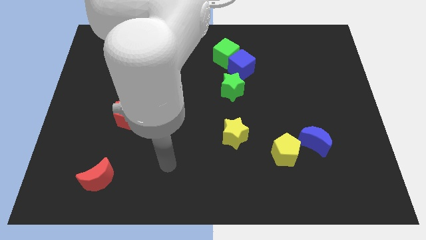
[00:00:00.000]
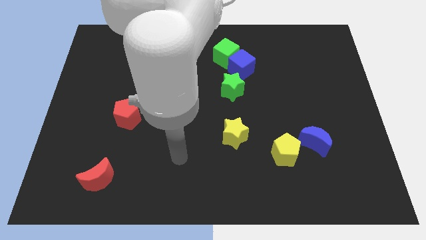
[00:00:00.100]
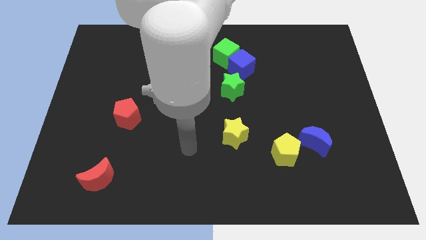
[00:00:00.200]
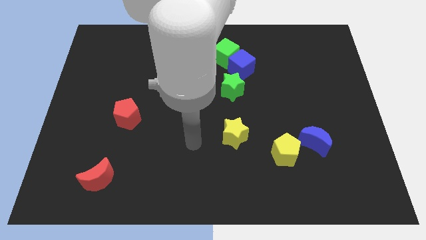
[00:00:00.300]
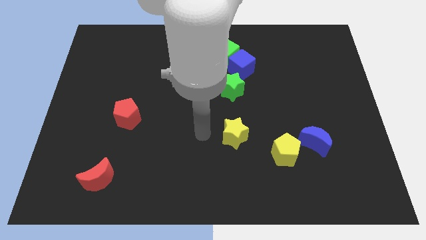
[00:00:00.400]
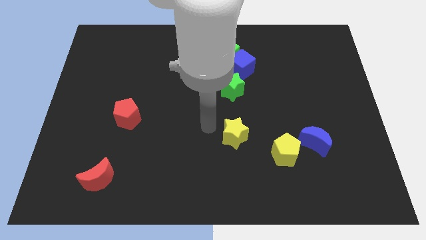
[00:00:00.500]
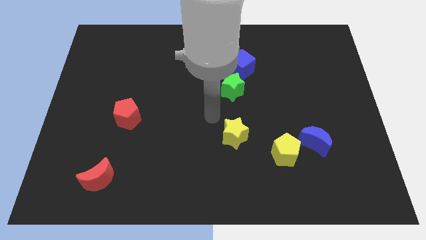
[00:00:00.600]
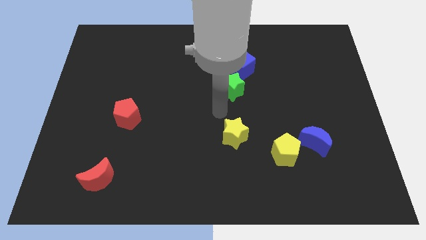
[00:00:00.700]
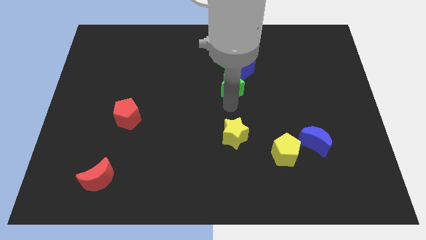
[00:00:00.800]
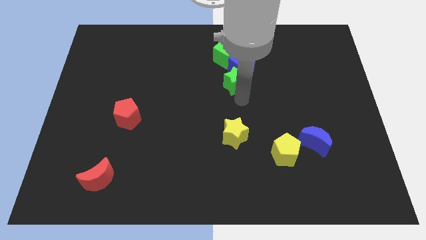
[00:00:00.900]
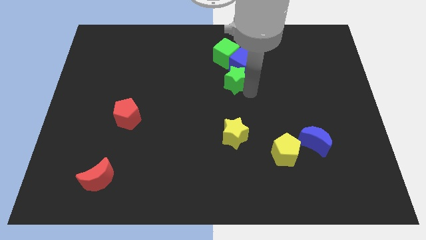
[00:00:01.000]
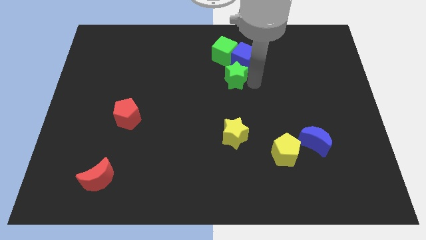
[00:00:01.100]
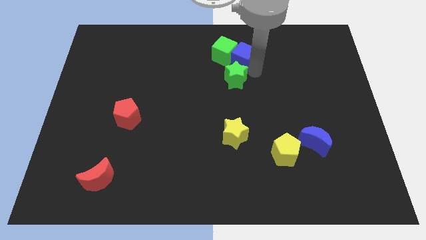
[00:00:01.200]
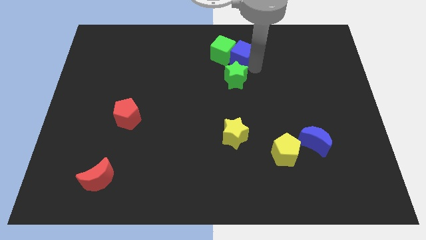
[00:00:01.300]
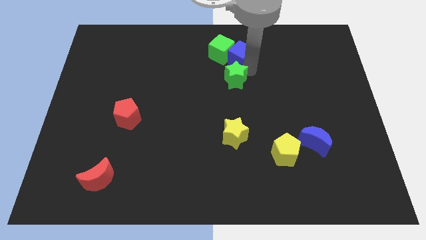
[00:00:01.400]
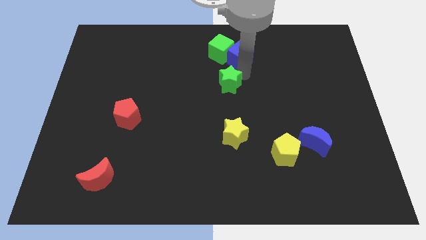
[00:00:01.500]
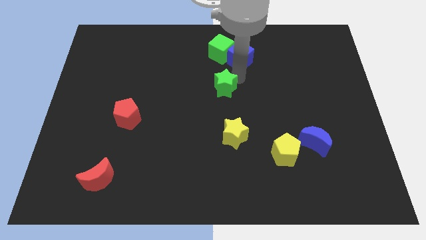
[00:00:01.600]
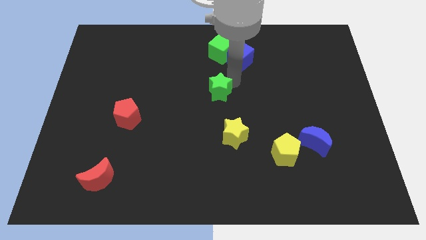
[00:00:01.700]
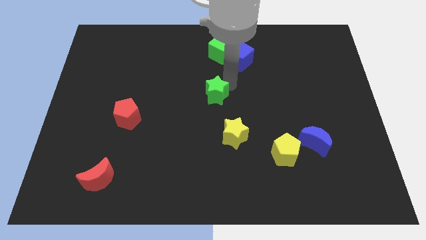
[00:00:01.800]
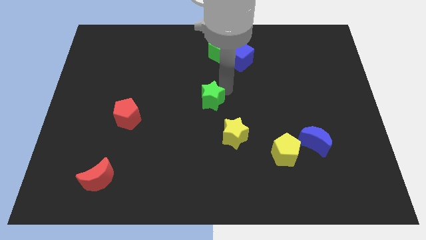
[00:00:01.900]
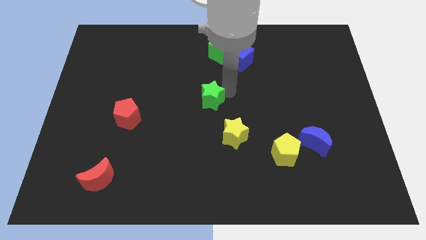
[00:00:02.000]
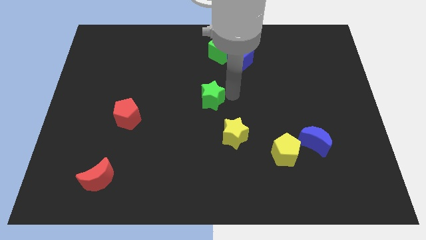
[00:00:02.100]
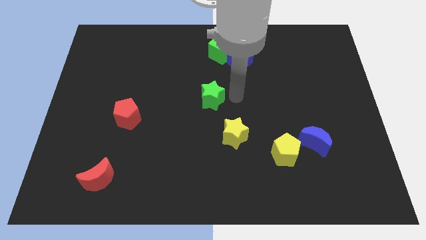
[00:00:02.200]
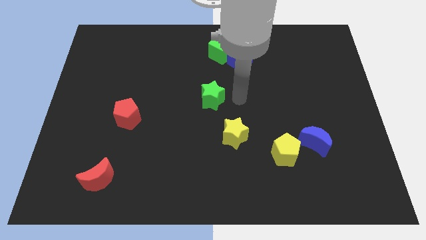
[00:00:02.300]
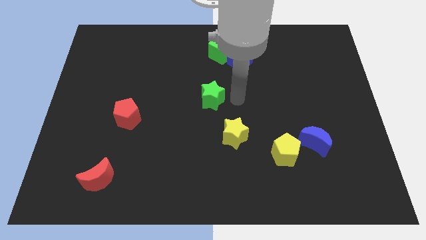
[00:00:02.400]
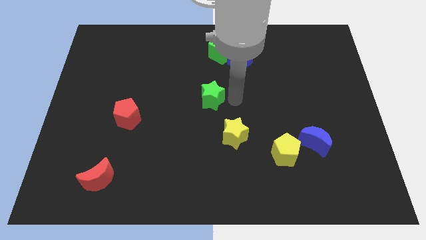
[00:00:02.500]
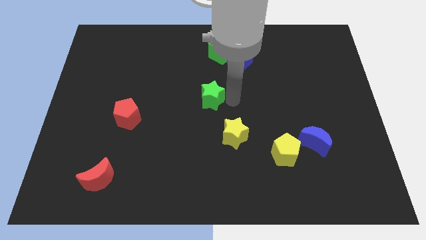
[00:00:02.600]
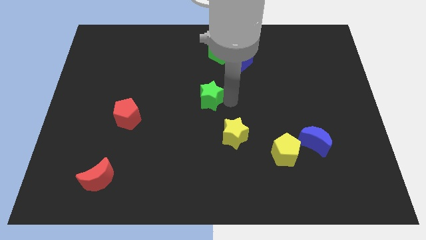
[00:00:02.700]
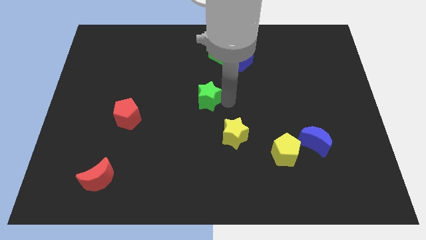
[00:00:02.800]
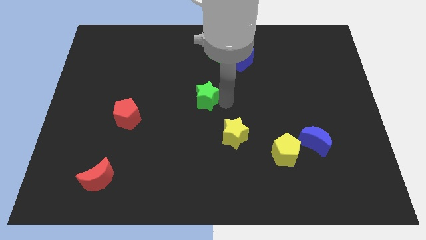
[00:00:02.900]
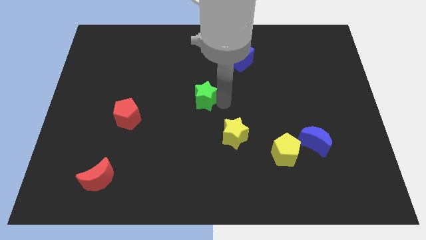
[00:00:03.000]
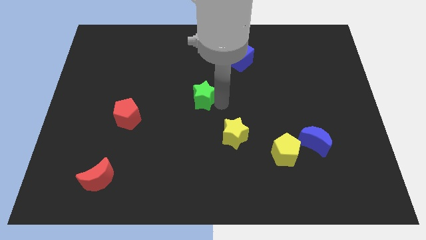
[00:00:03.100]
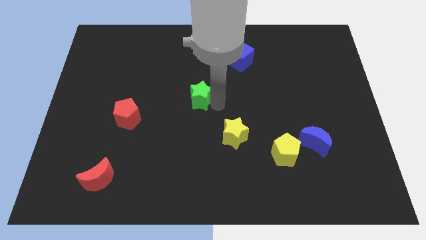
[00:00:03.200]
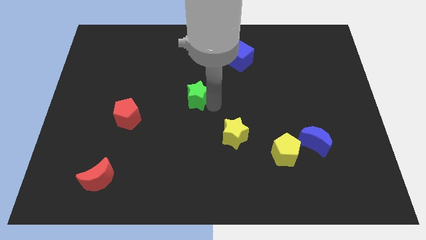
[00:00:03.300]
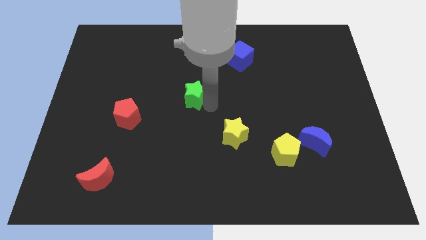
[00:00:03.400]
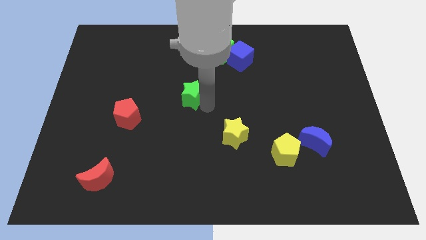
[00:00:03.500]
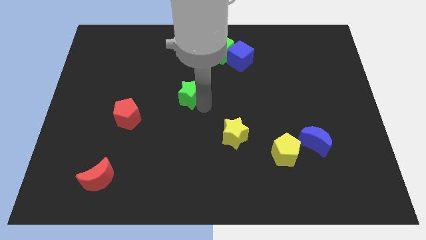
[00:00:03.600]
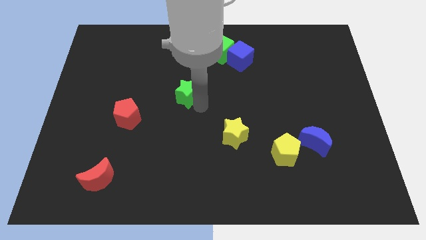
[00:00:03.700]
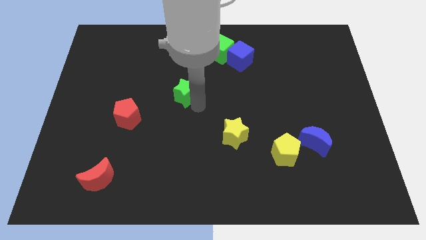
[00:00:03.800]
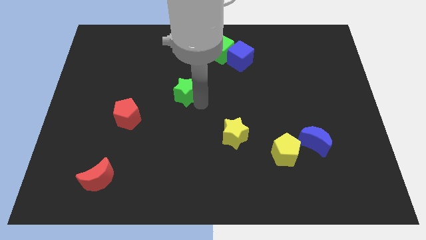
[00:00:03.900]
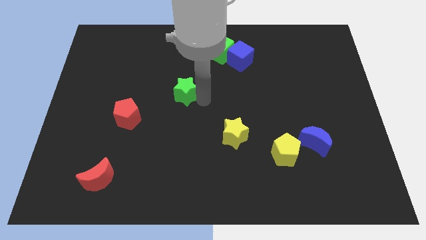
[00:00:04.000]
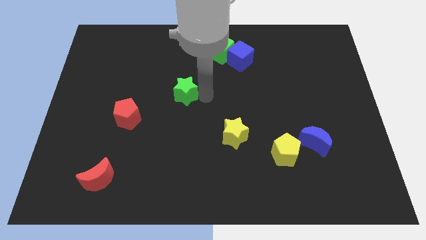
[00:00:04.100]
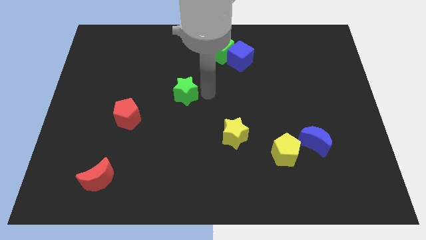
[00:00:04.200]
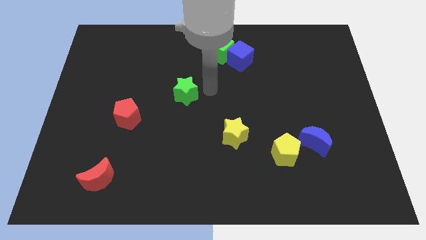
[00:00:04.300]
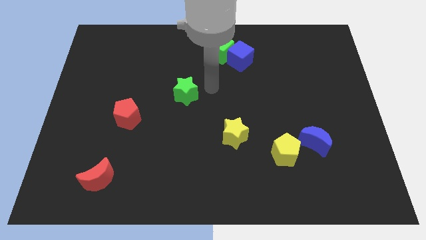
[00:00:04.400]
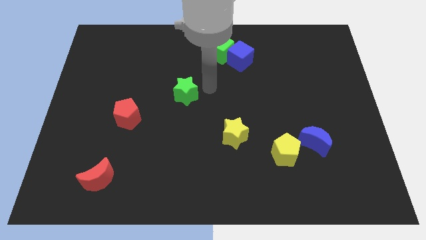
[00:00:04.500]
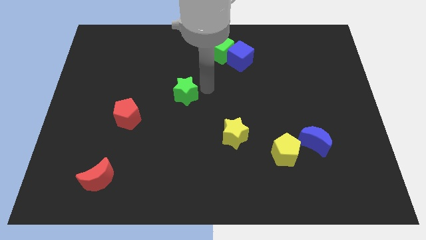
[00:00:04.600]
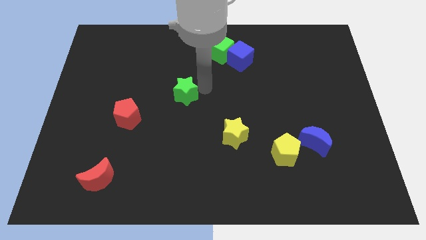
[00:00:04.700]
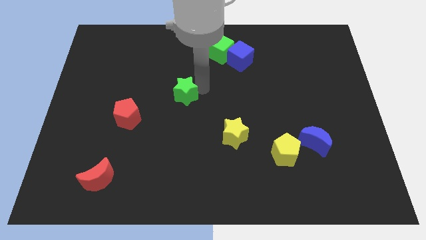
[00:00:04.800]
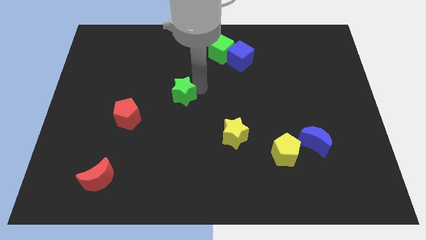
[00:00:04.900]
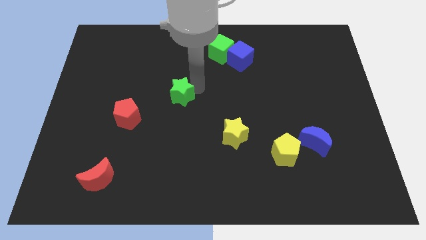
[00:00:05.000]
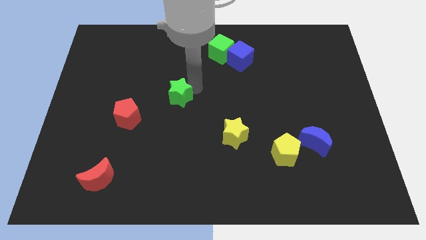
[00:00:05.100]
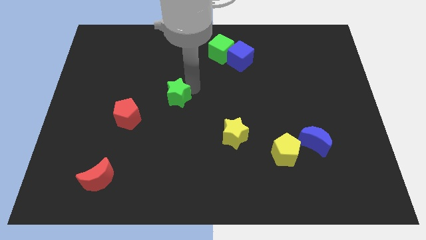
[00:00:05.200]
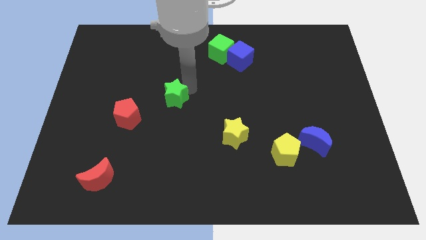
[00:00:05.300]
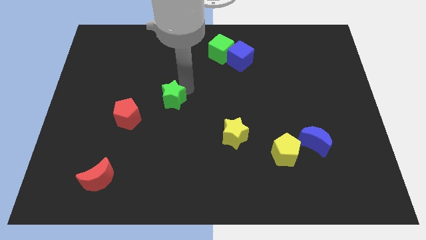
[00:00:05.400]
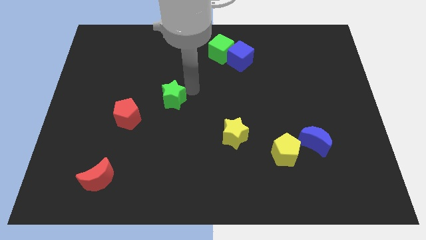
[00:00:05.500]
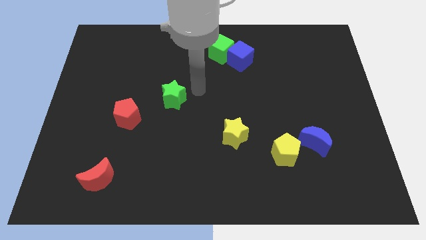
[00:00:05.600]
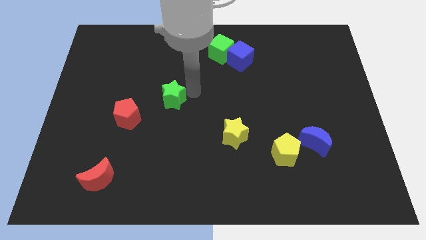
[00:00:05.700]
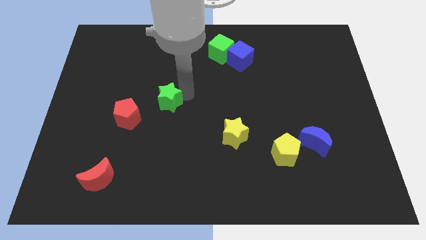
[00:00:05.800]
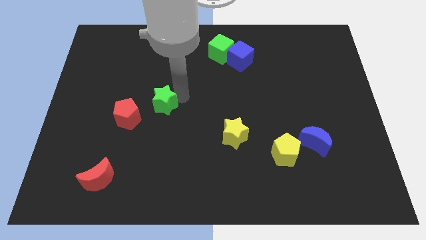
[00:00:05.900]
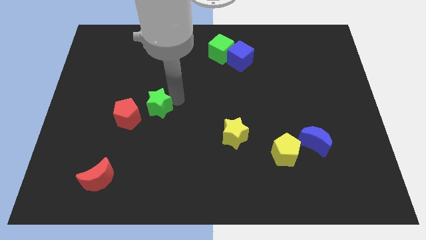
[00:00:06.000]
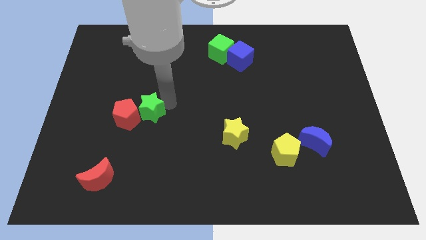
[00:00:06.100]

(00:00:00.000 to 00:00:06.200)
slide the green star towards the red pentagon

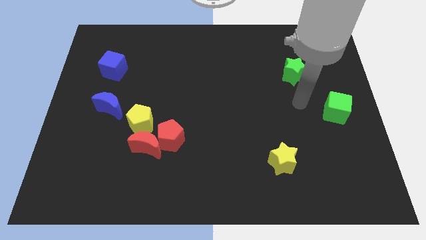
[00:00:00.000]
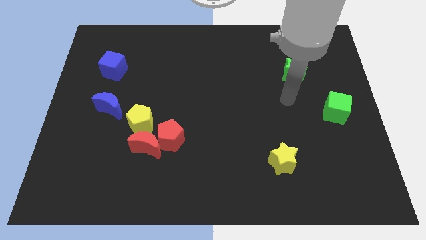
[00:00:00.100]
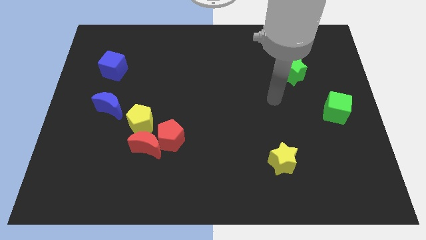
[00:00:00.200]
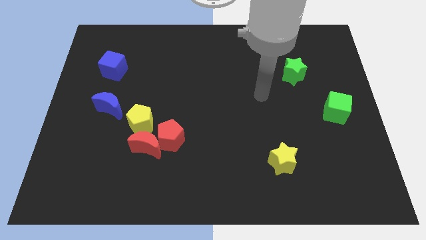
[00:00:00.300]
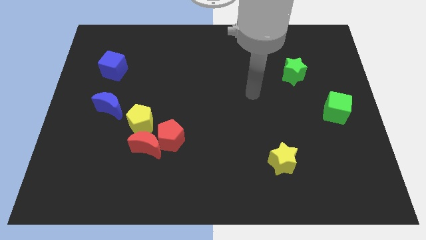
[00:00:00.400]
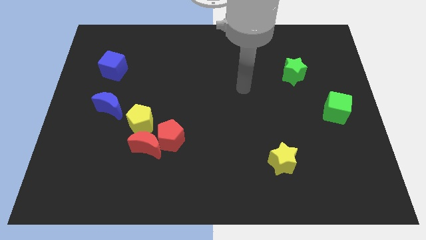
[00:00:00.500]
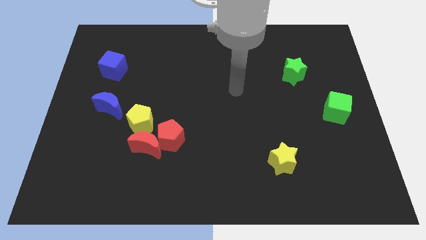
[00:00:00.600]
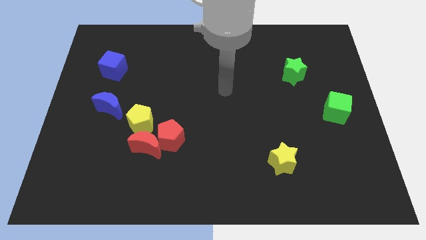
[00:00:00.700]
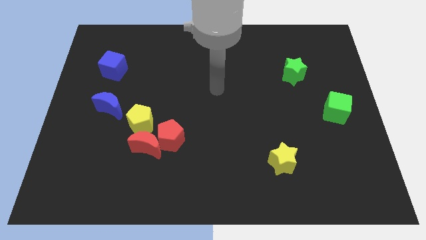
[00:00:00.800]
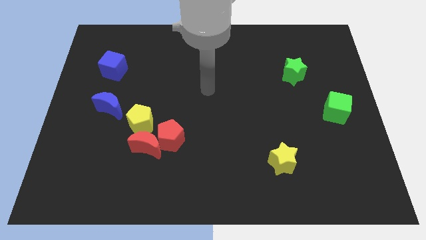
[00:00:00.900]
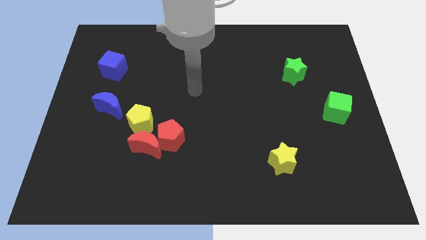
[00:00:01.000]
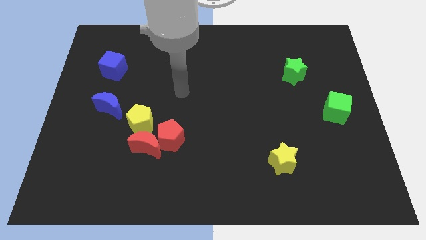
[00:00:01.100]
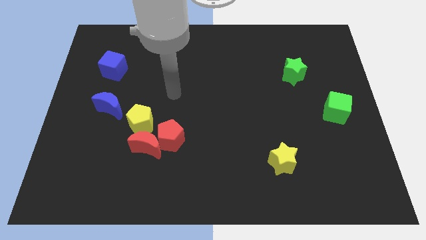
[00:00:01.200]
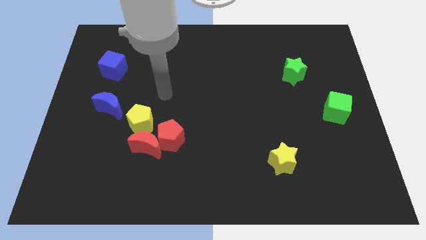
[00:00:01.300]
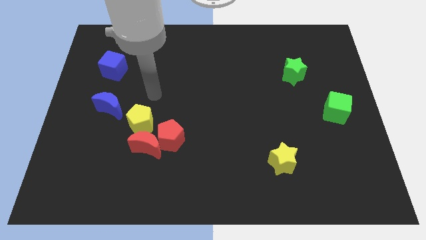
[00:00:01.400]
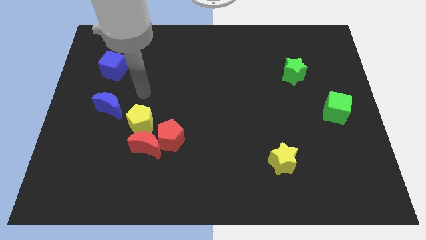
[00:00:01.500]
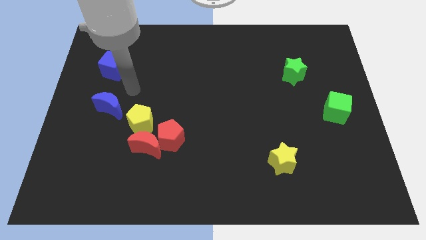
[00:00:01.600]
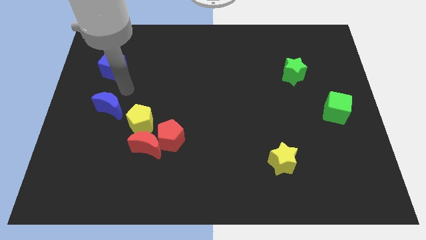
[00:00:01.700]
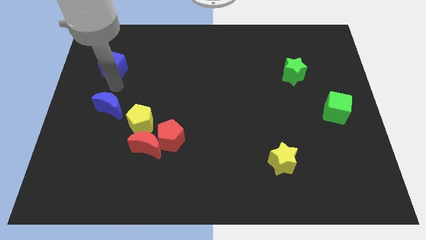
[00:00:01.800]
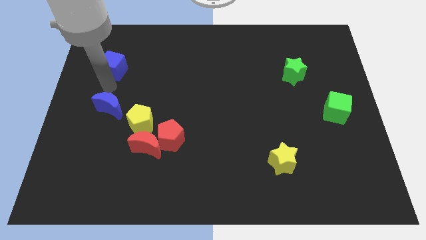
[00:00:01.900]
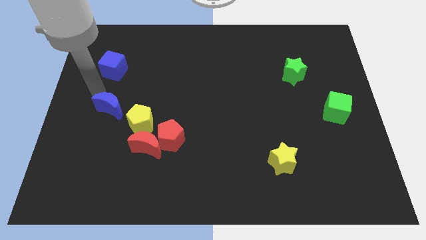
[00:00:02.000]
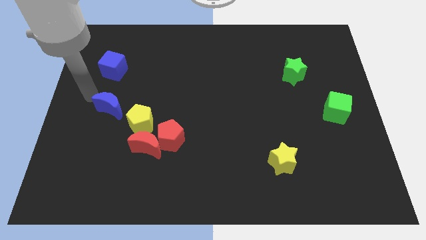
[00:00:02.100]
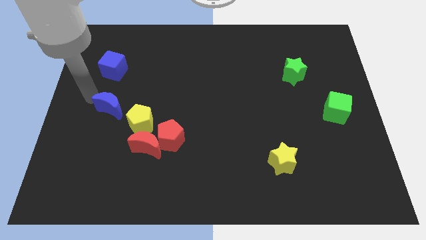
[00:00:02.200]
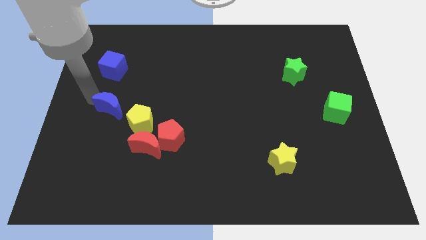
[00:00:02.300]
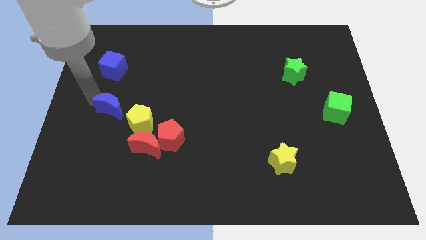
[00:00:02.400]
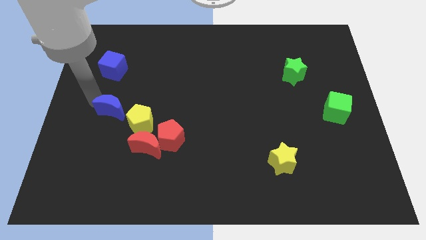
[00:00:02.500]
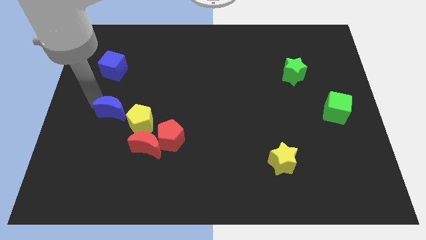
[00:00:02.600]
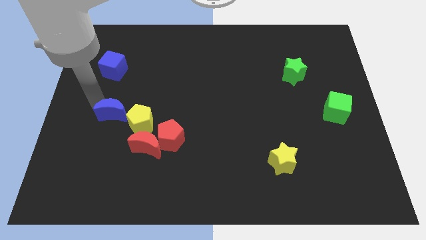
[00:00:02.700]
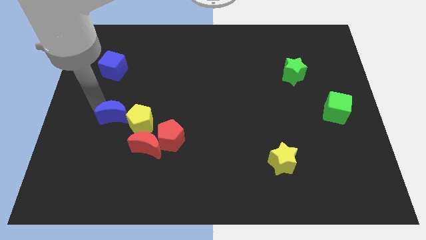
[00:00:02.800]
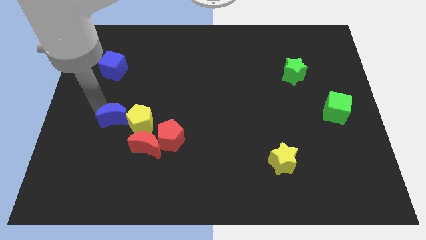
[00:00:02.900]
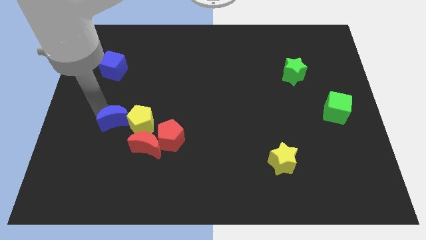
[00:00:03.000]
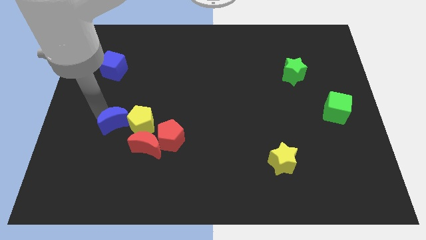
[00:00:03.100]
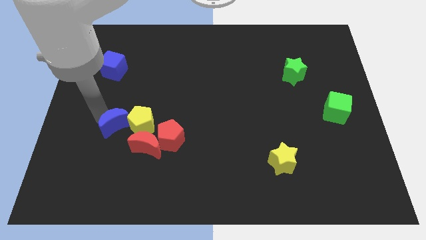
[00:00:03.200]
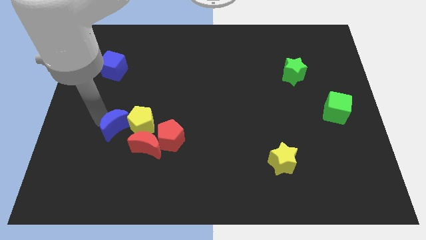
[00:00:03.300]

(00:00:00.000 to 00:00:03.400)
push the blue moon towards the yellow pentagon
